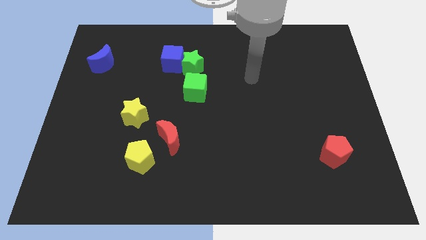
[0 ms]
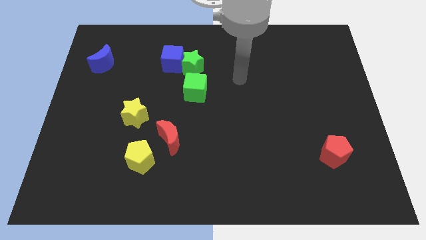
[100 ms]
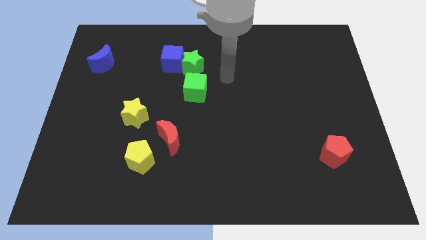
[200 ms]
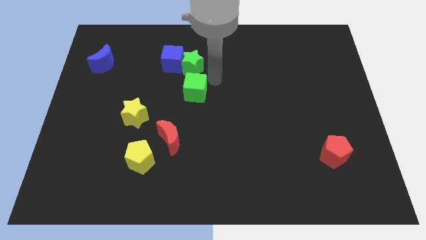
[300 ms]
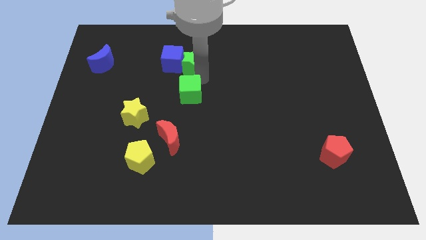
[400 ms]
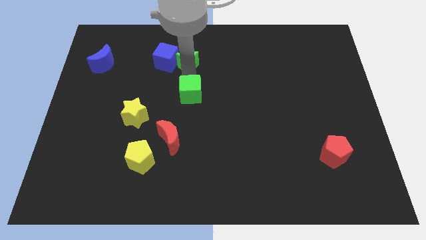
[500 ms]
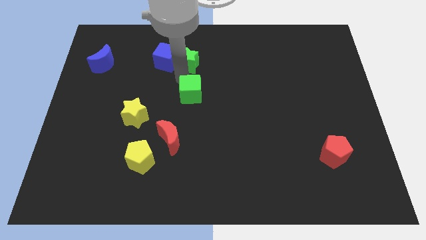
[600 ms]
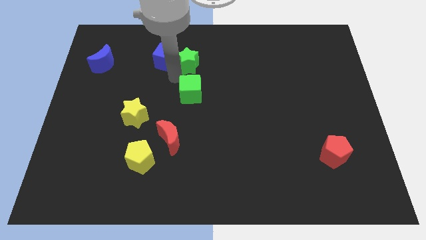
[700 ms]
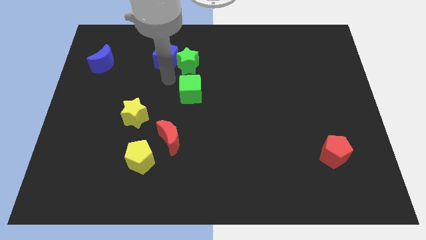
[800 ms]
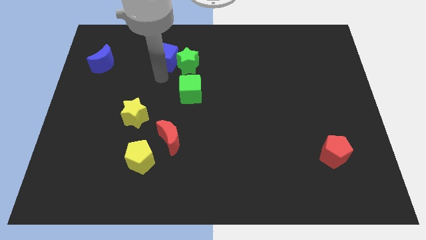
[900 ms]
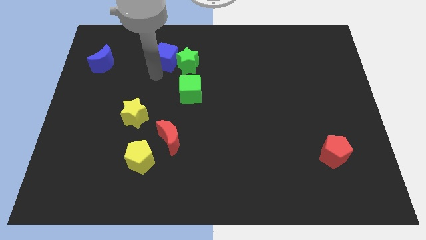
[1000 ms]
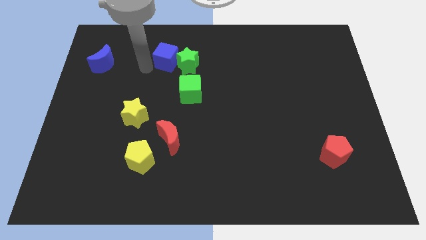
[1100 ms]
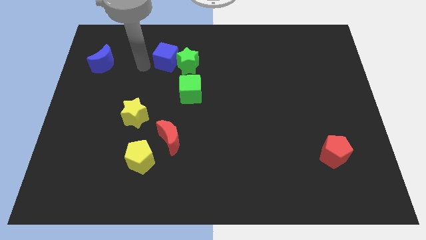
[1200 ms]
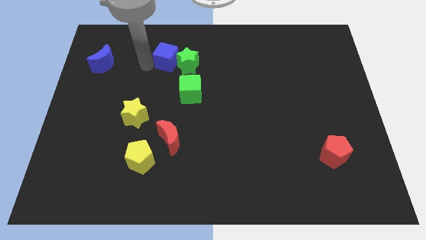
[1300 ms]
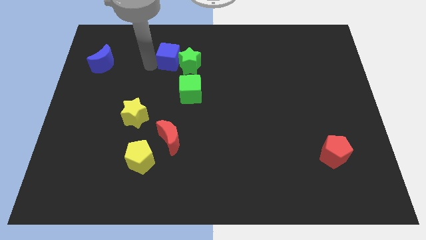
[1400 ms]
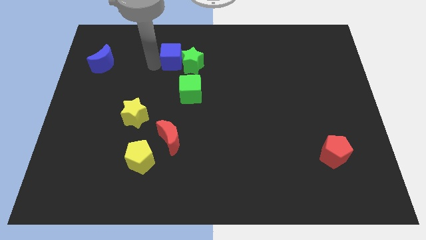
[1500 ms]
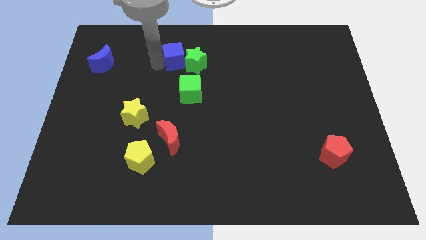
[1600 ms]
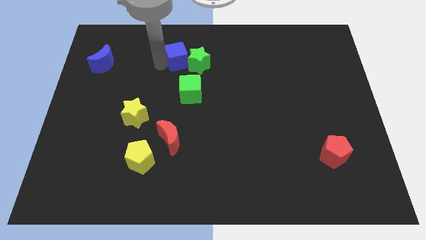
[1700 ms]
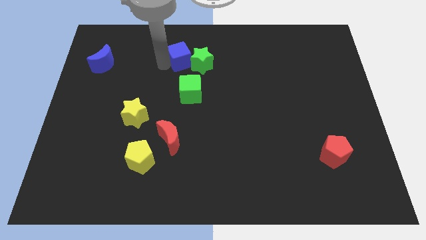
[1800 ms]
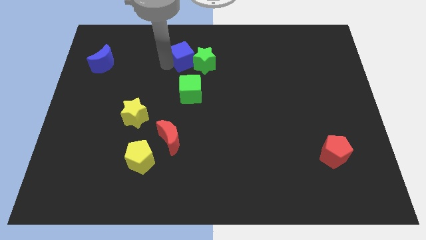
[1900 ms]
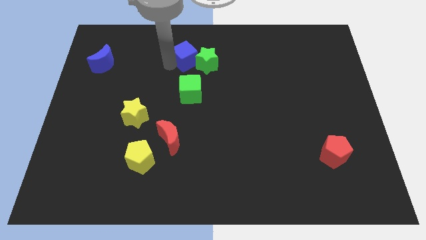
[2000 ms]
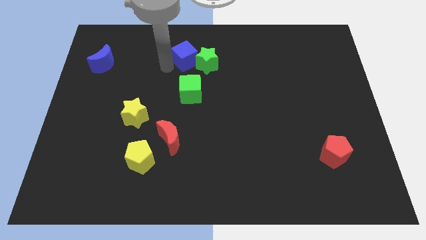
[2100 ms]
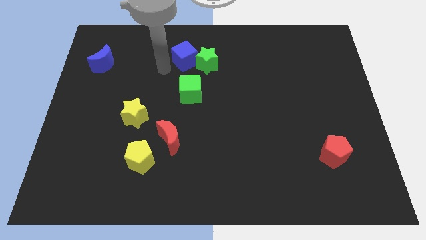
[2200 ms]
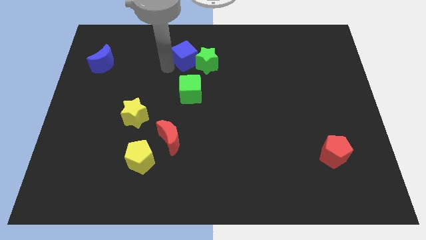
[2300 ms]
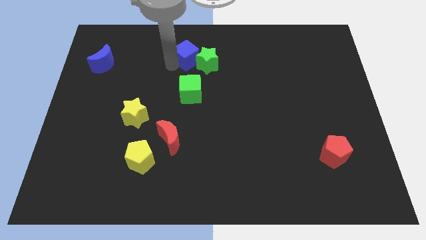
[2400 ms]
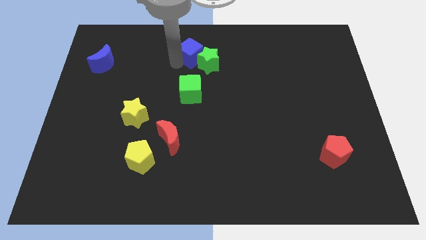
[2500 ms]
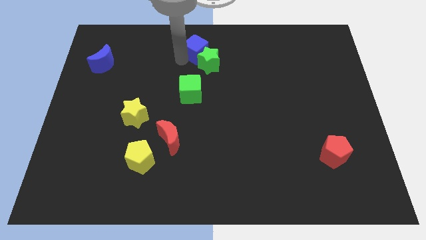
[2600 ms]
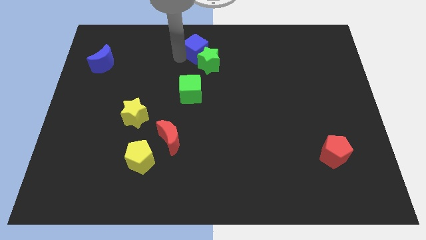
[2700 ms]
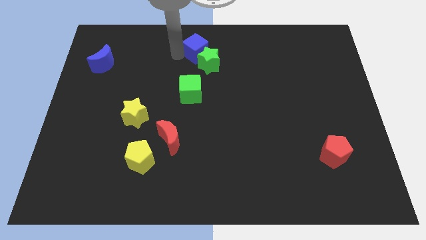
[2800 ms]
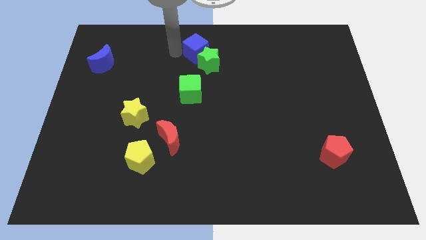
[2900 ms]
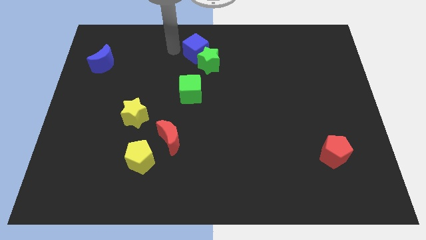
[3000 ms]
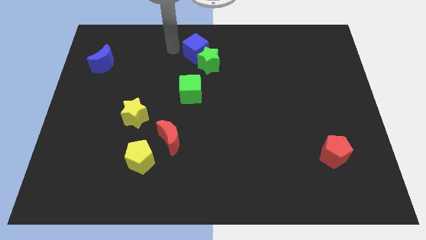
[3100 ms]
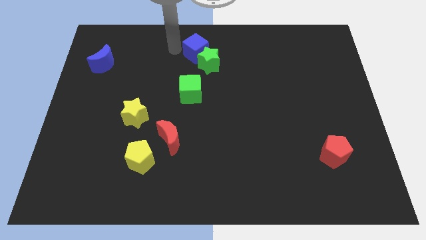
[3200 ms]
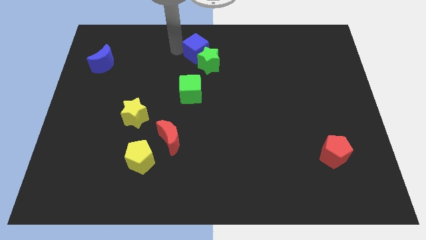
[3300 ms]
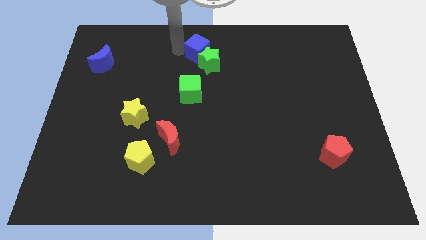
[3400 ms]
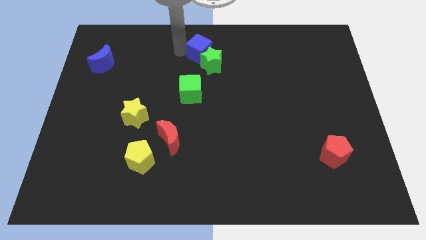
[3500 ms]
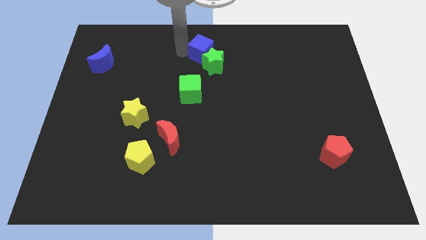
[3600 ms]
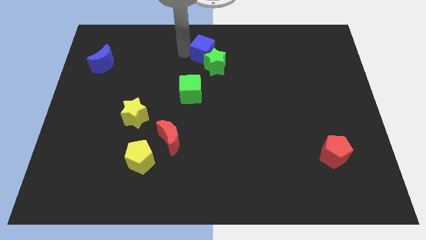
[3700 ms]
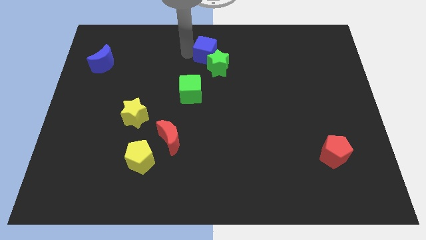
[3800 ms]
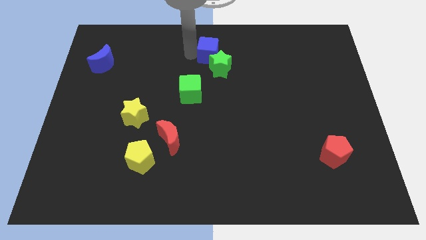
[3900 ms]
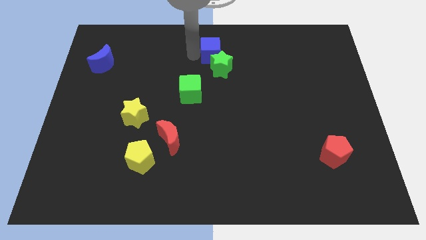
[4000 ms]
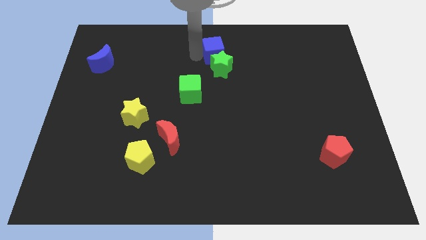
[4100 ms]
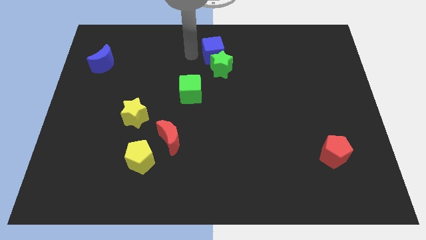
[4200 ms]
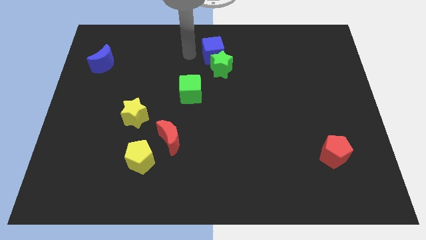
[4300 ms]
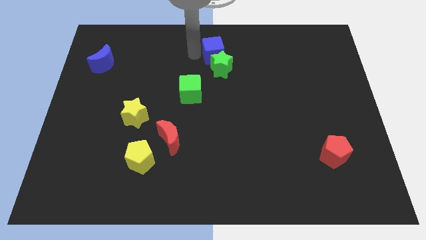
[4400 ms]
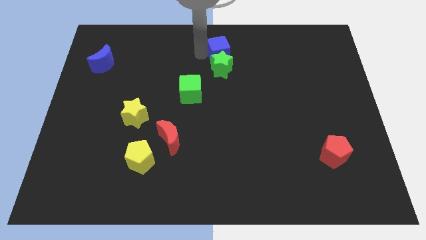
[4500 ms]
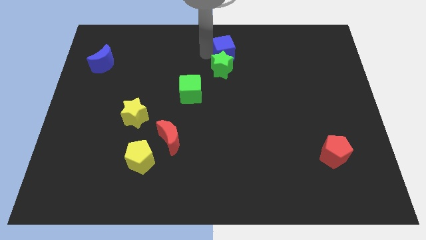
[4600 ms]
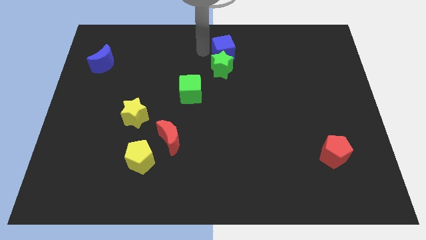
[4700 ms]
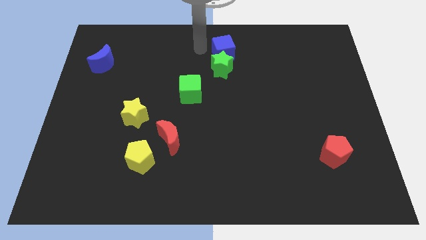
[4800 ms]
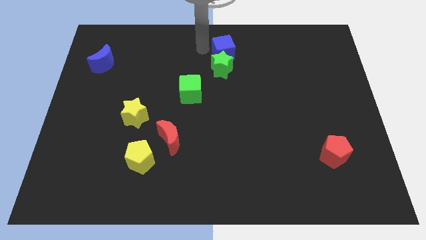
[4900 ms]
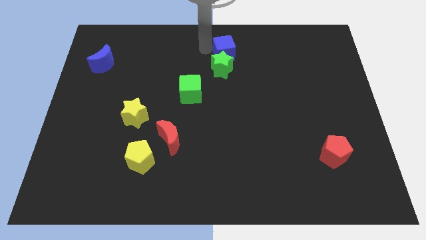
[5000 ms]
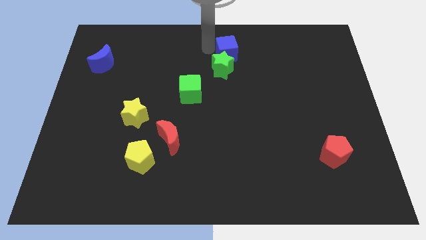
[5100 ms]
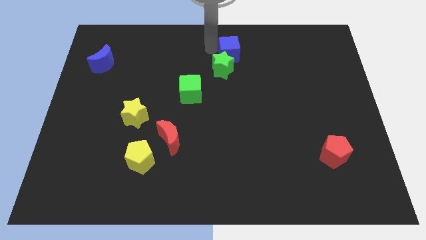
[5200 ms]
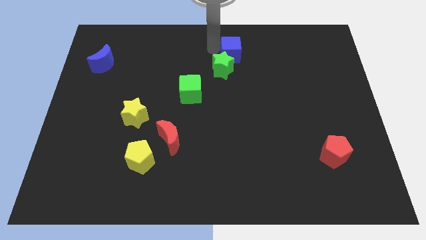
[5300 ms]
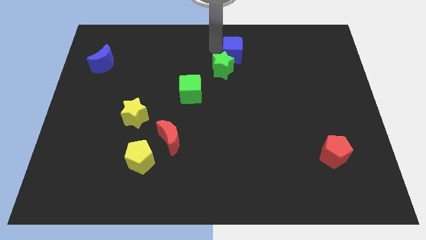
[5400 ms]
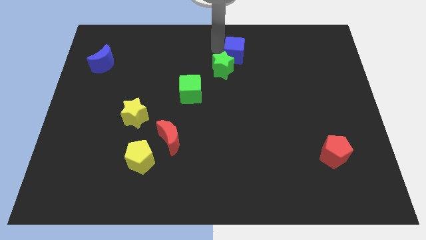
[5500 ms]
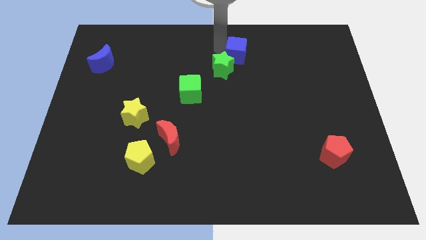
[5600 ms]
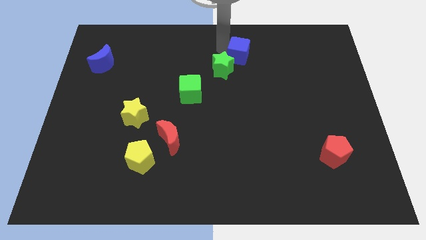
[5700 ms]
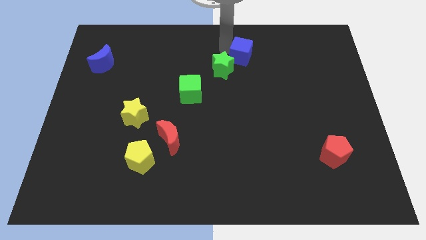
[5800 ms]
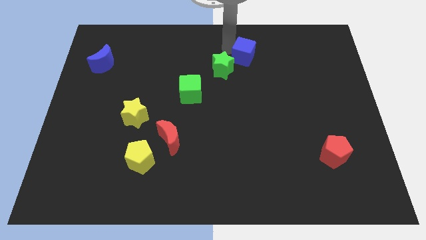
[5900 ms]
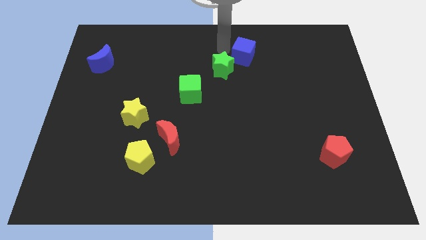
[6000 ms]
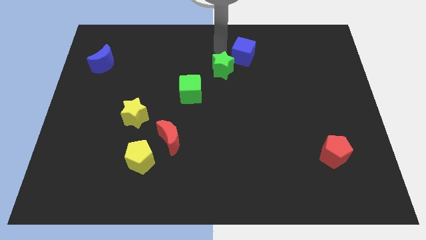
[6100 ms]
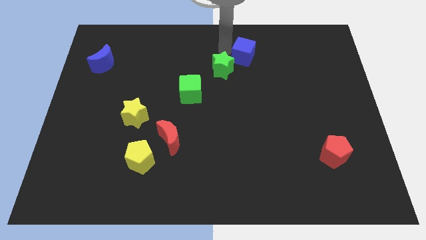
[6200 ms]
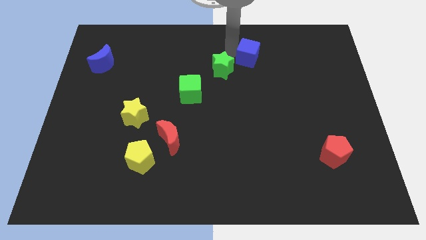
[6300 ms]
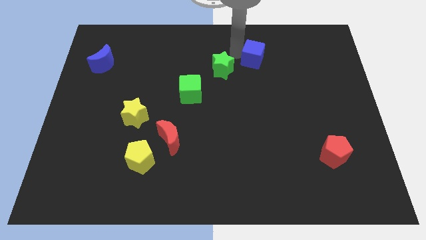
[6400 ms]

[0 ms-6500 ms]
push the blue cube right

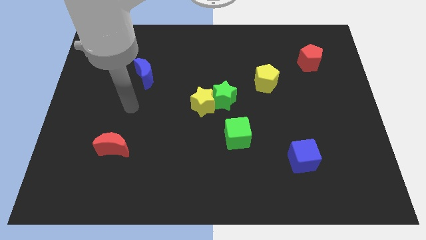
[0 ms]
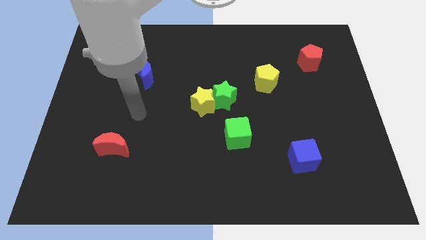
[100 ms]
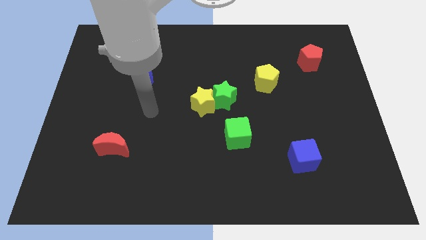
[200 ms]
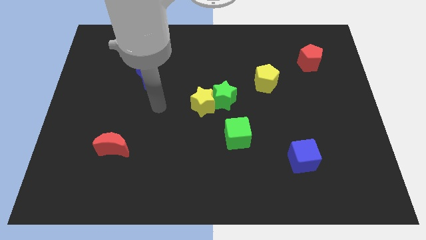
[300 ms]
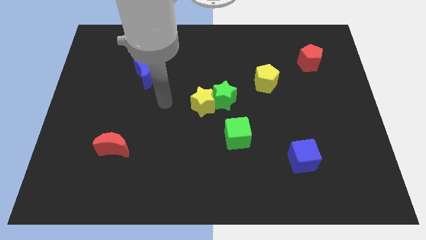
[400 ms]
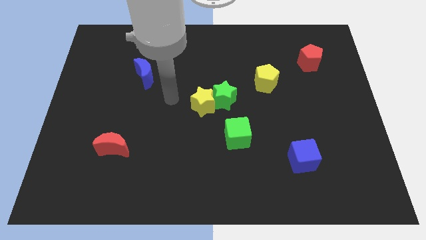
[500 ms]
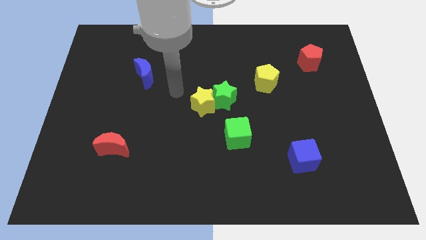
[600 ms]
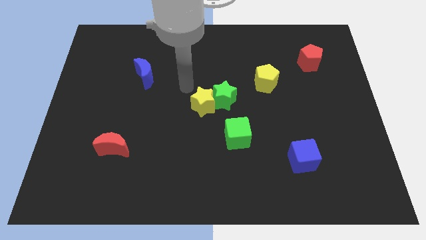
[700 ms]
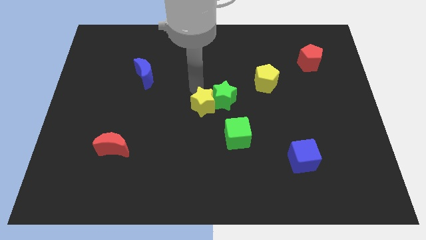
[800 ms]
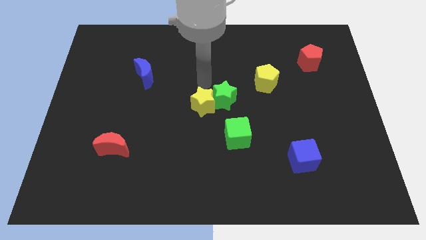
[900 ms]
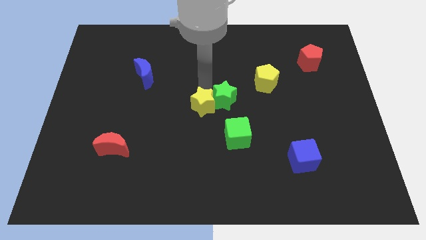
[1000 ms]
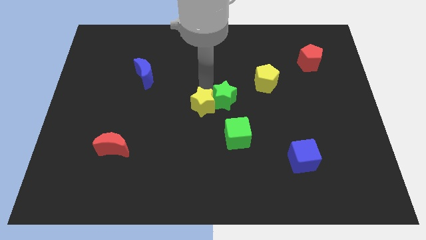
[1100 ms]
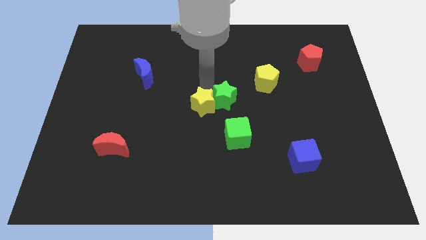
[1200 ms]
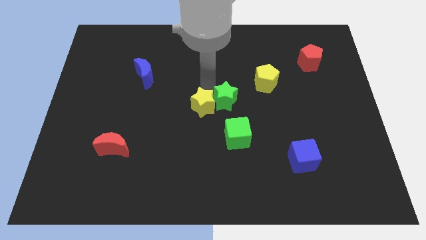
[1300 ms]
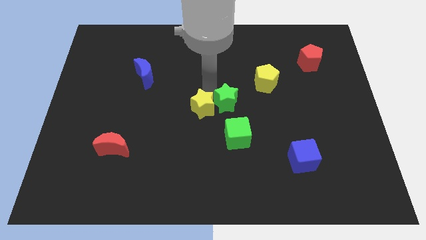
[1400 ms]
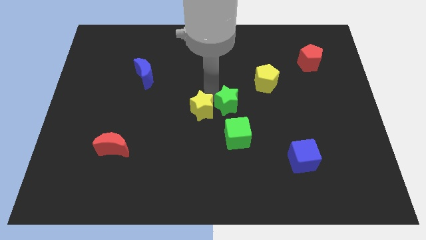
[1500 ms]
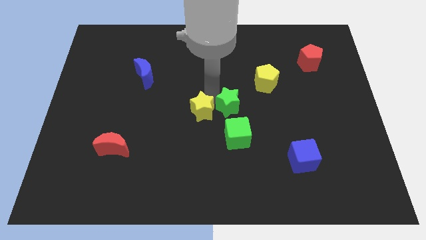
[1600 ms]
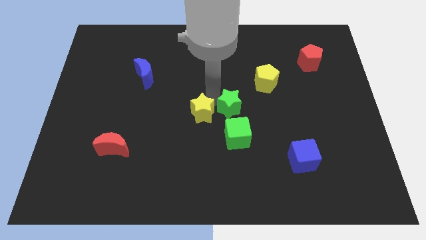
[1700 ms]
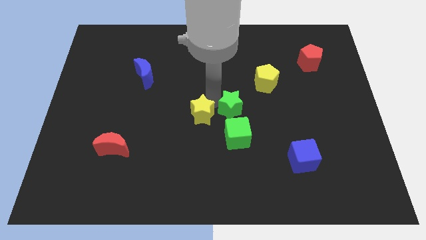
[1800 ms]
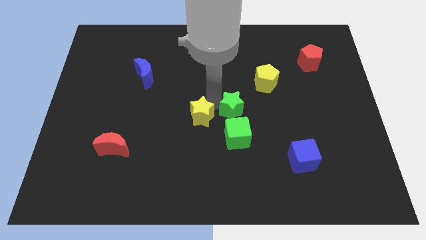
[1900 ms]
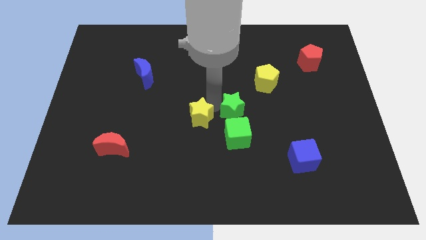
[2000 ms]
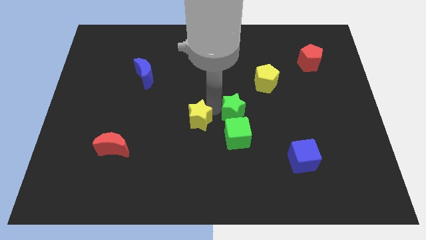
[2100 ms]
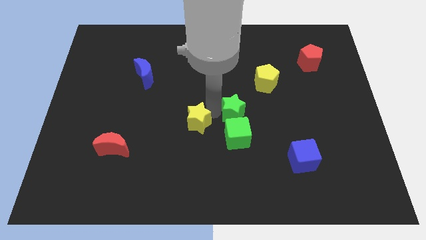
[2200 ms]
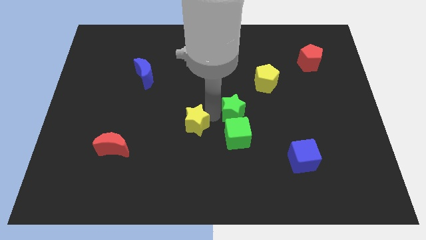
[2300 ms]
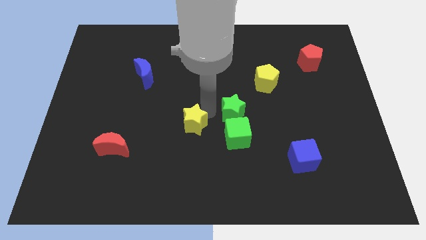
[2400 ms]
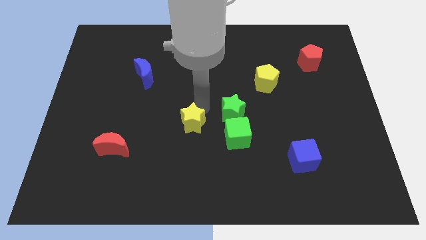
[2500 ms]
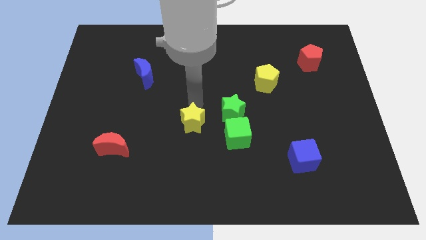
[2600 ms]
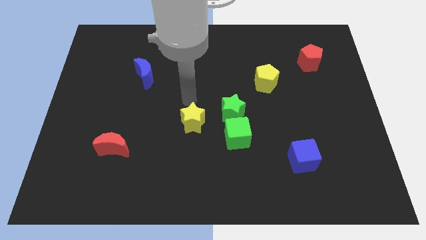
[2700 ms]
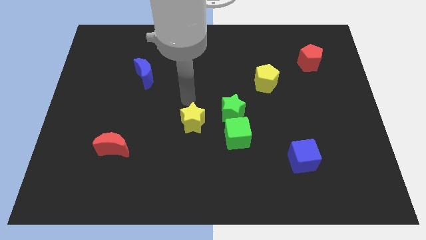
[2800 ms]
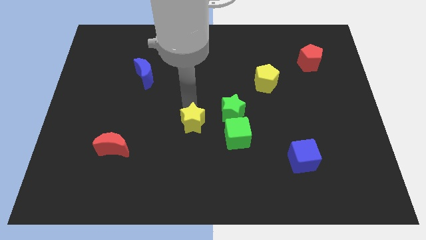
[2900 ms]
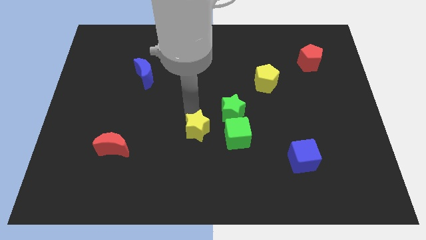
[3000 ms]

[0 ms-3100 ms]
push the yellow star somewhat down
